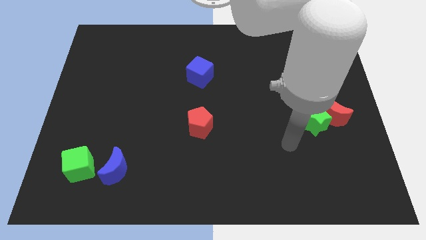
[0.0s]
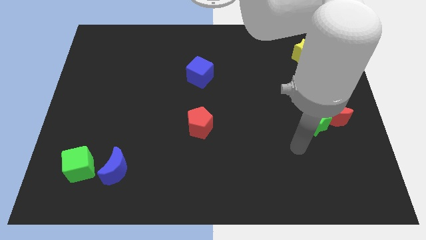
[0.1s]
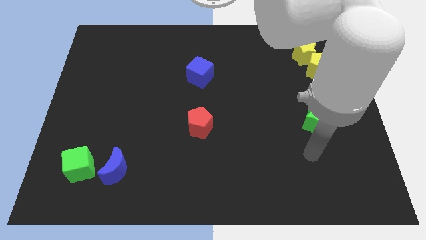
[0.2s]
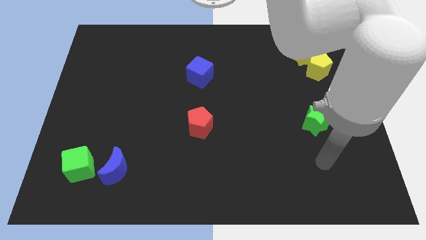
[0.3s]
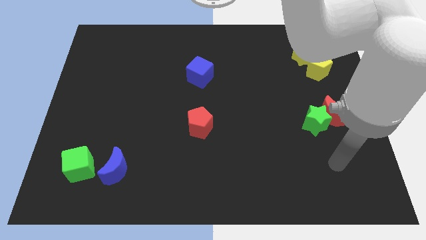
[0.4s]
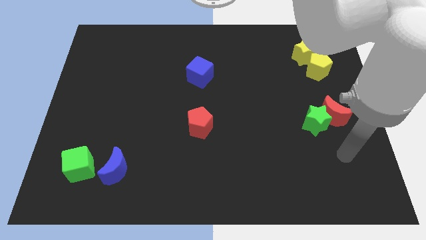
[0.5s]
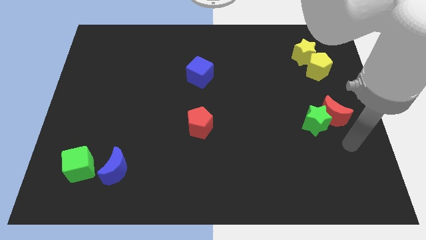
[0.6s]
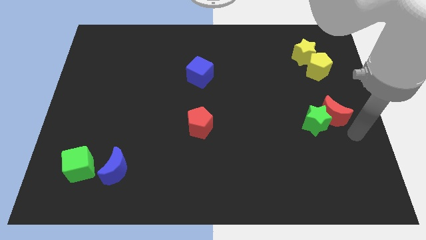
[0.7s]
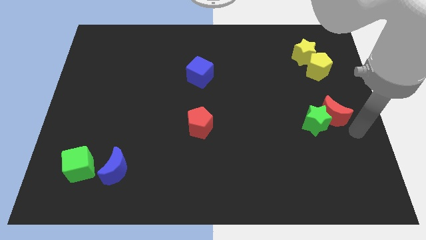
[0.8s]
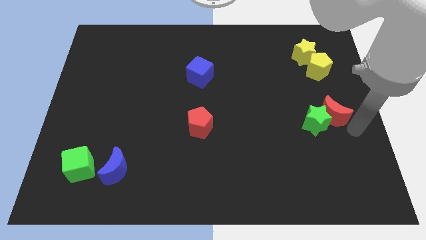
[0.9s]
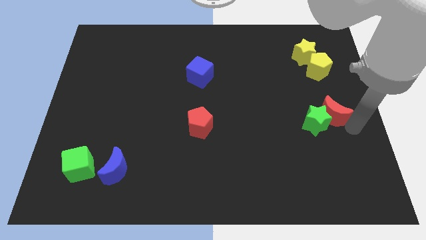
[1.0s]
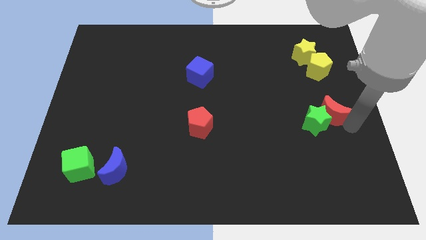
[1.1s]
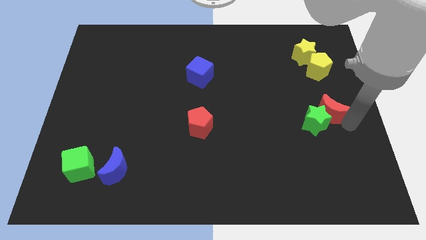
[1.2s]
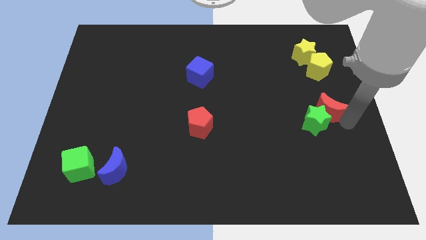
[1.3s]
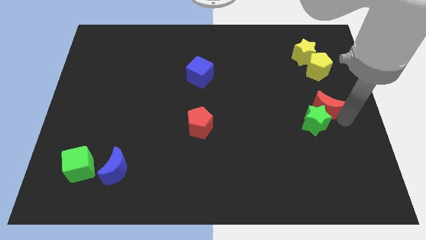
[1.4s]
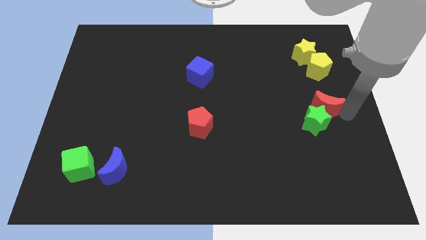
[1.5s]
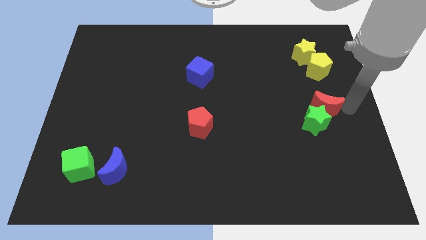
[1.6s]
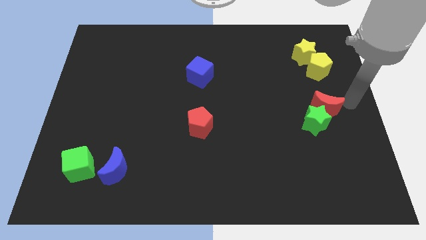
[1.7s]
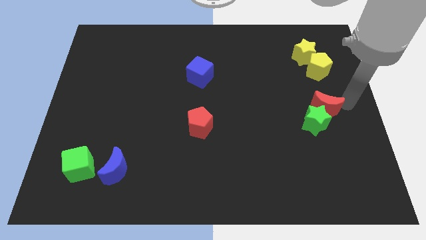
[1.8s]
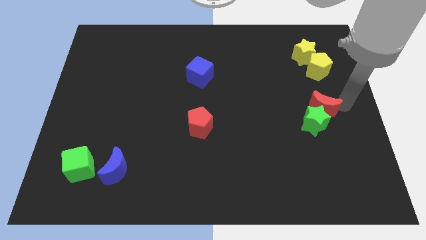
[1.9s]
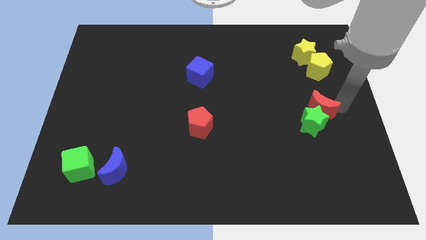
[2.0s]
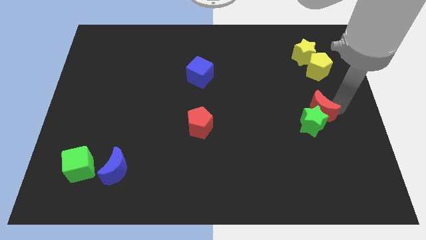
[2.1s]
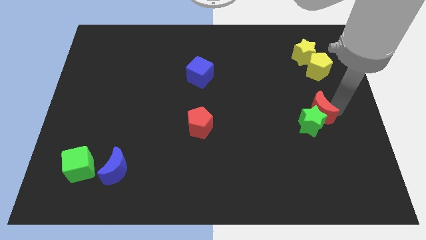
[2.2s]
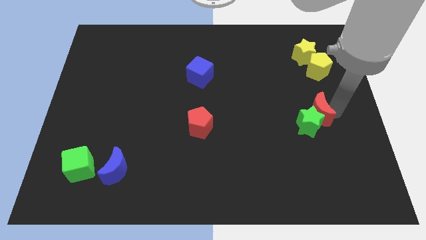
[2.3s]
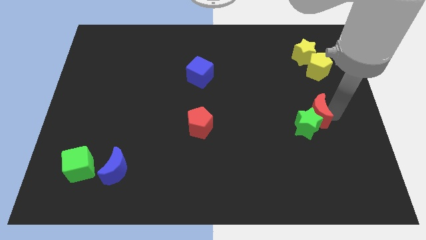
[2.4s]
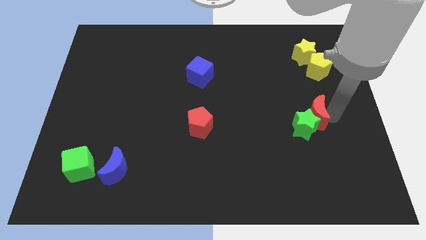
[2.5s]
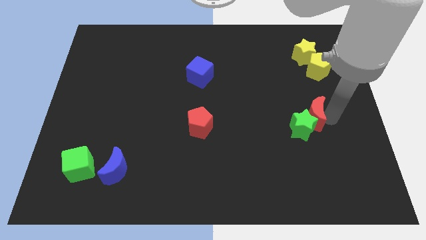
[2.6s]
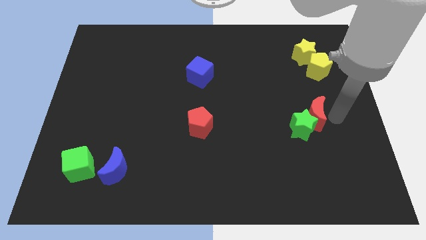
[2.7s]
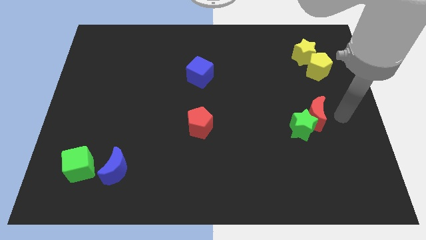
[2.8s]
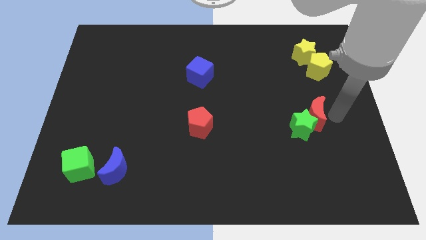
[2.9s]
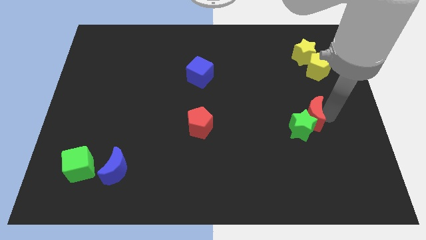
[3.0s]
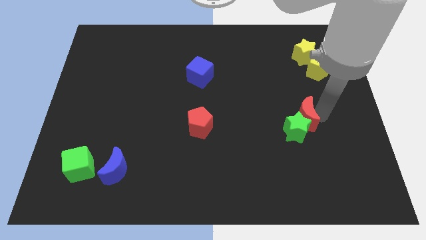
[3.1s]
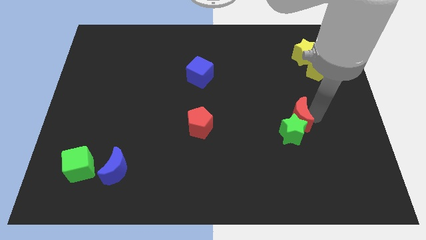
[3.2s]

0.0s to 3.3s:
slightly slide the red moon to the left

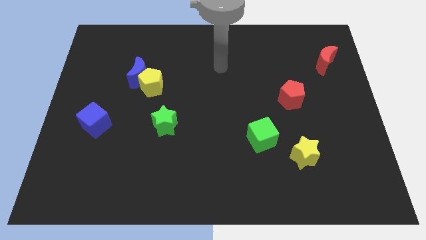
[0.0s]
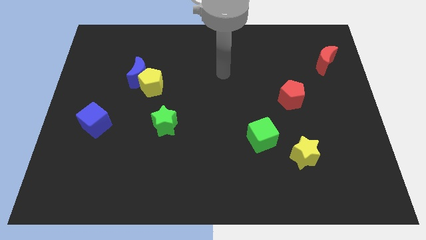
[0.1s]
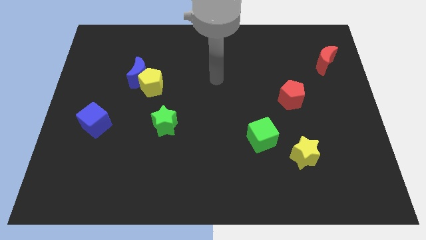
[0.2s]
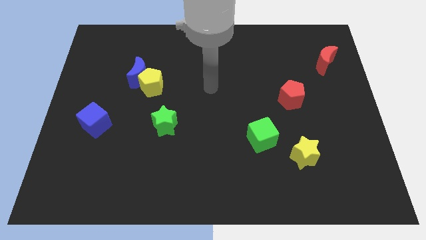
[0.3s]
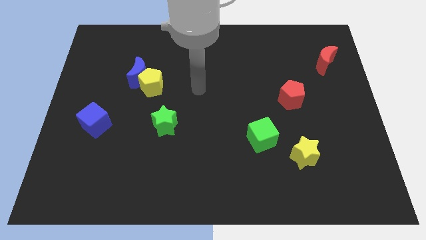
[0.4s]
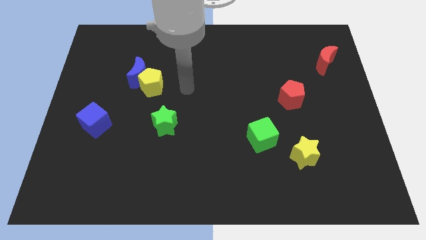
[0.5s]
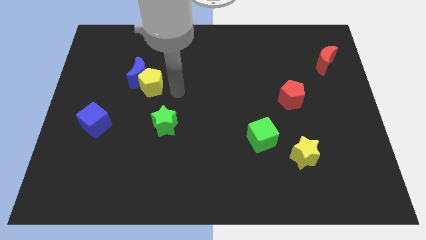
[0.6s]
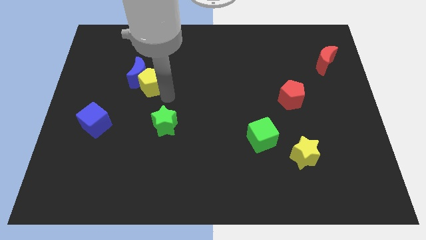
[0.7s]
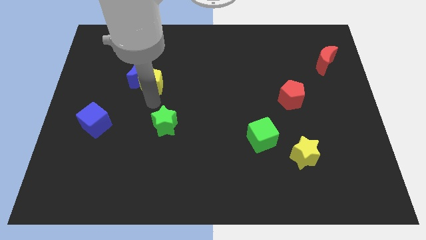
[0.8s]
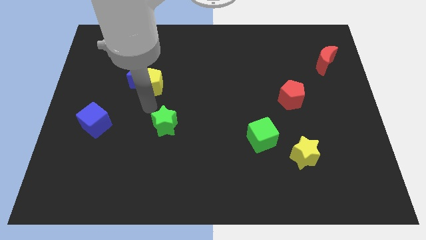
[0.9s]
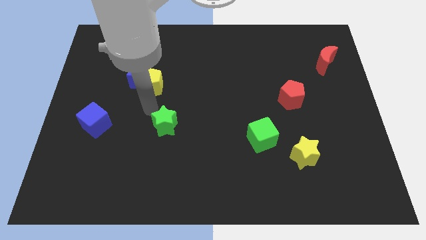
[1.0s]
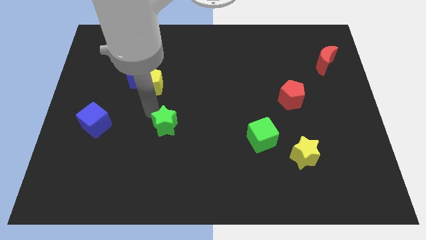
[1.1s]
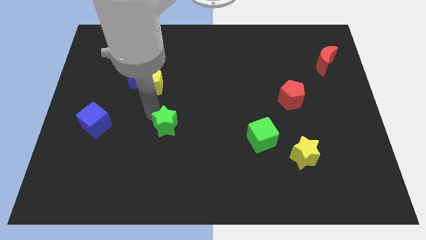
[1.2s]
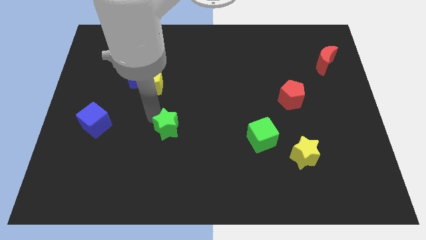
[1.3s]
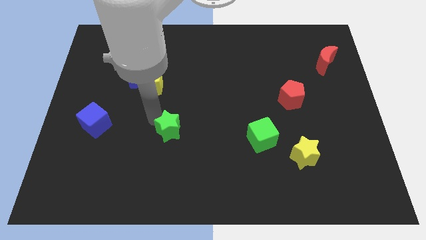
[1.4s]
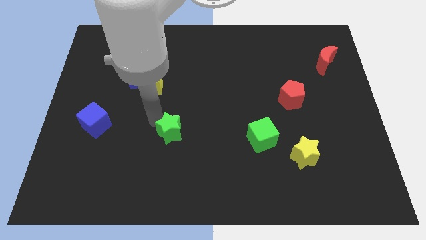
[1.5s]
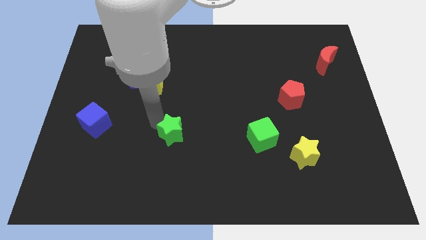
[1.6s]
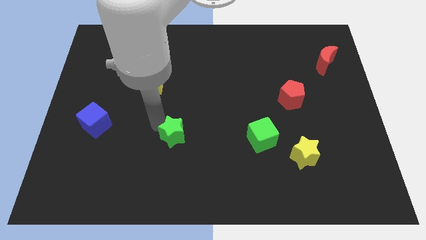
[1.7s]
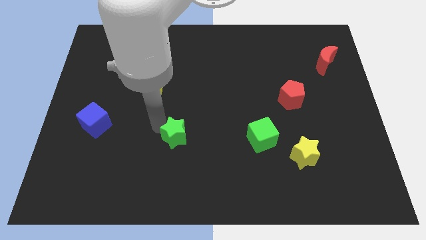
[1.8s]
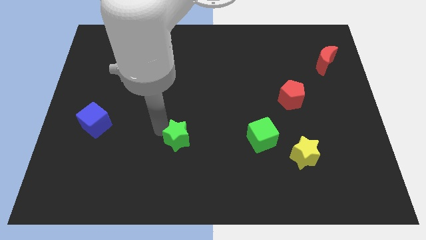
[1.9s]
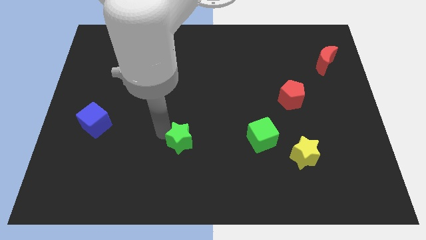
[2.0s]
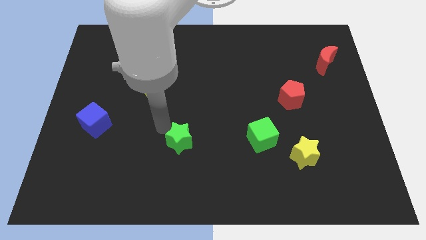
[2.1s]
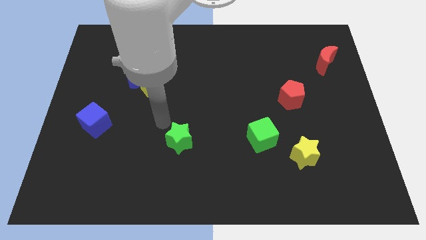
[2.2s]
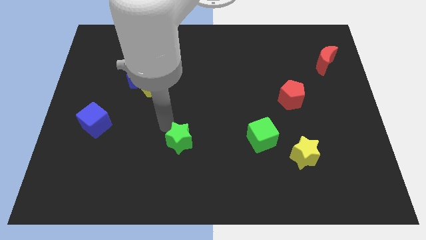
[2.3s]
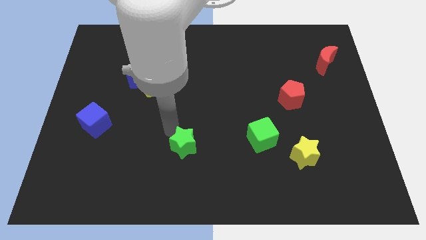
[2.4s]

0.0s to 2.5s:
push the green star a little diagonally downwards and right

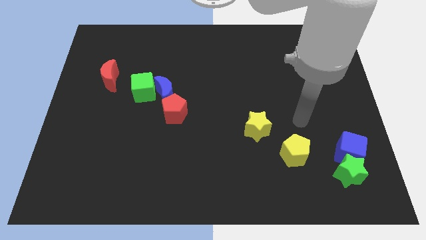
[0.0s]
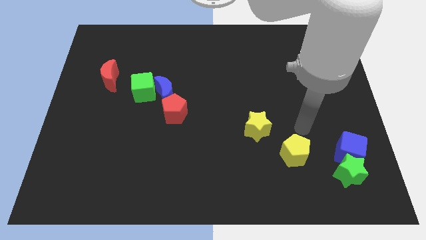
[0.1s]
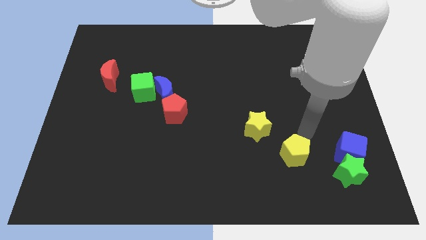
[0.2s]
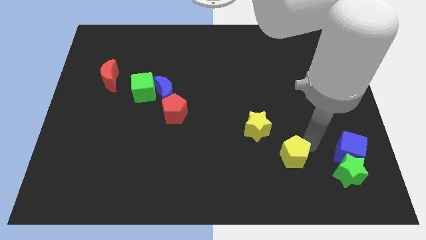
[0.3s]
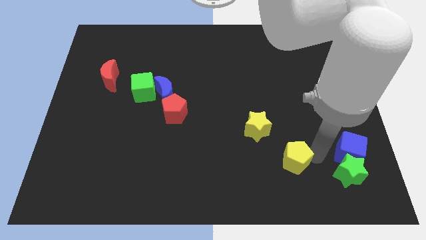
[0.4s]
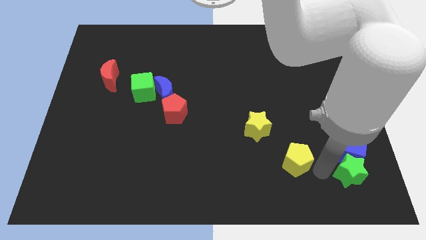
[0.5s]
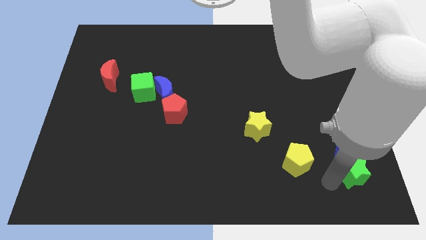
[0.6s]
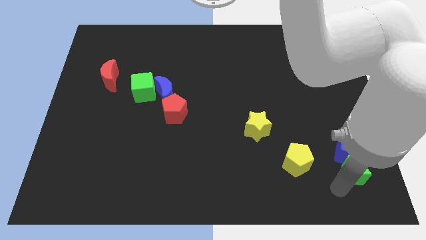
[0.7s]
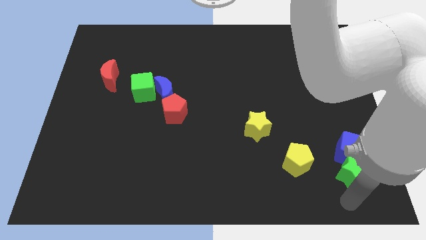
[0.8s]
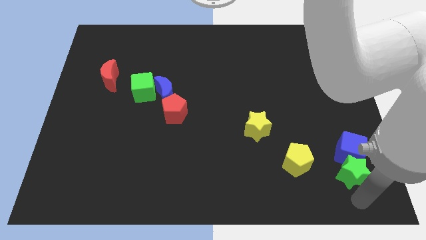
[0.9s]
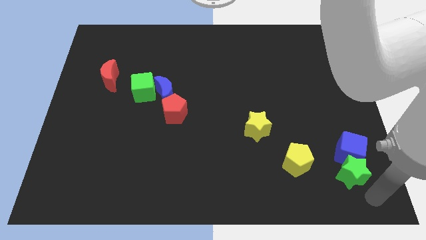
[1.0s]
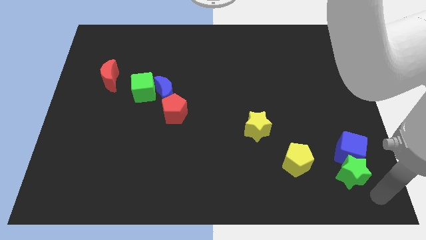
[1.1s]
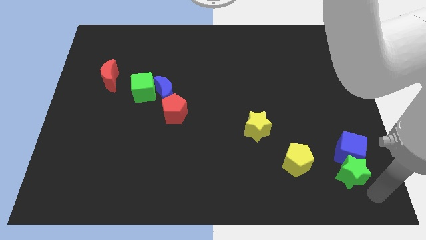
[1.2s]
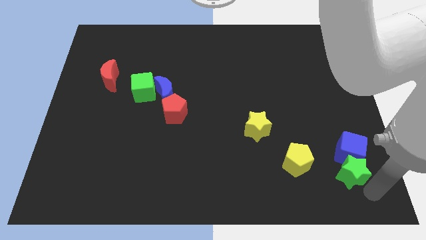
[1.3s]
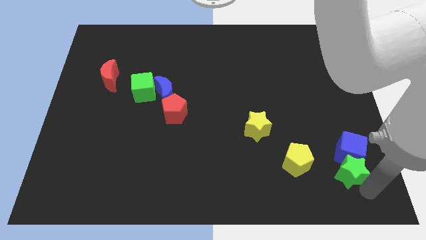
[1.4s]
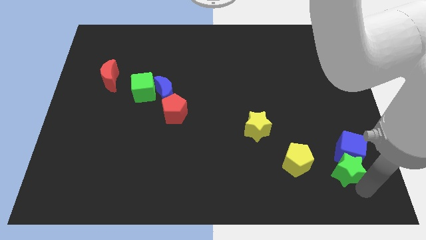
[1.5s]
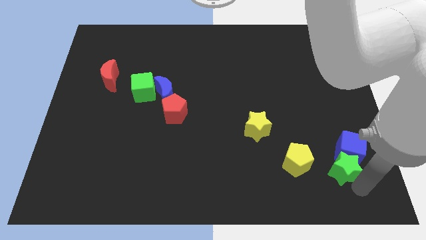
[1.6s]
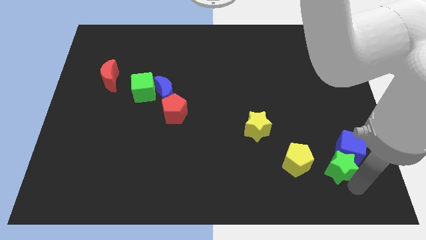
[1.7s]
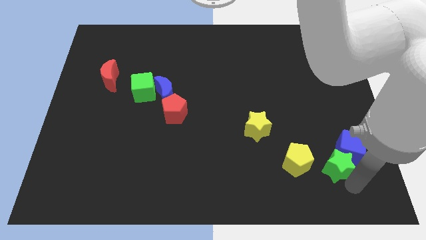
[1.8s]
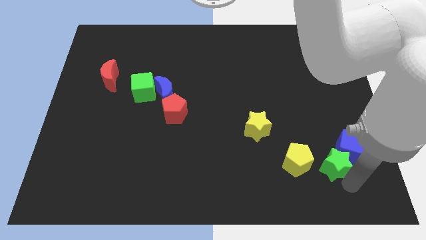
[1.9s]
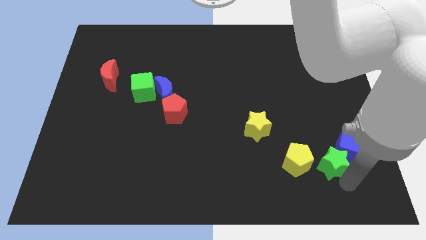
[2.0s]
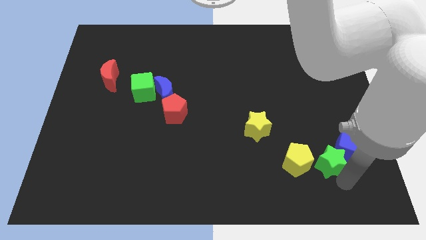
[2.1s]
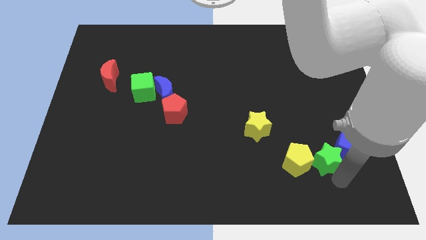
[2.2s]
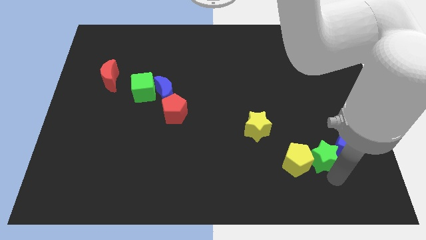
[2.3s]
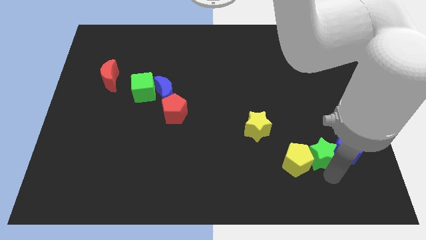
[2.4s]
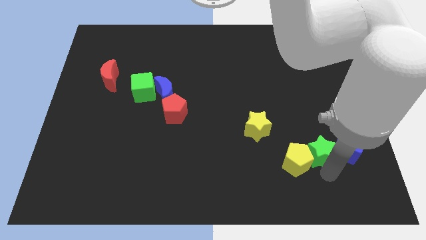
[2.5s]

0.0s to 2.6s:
slightly push the green star up and left diagonally
